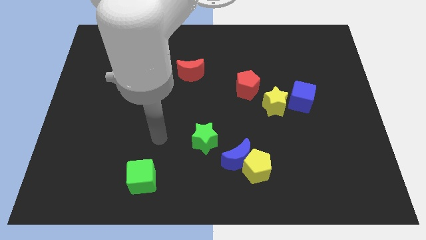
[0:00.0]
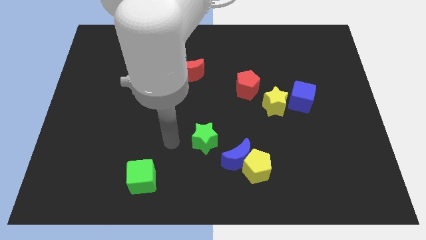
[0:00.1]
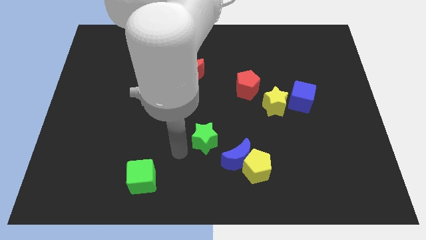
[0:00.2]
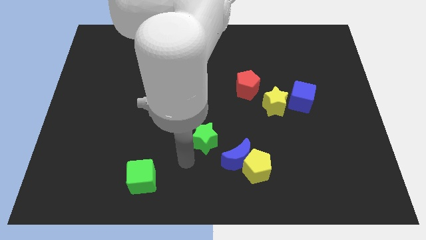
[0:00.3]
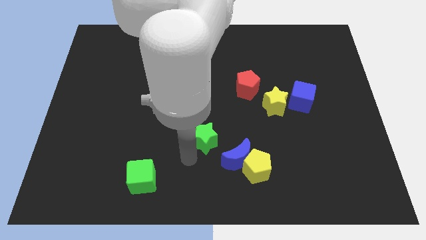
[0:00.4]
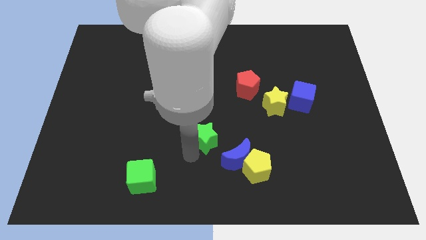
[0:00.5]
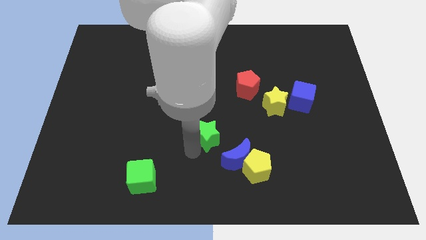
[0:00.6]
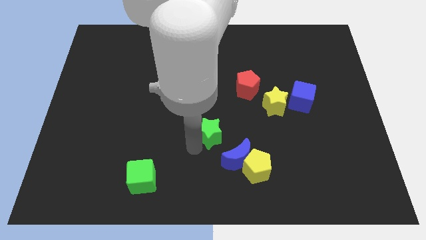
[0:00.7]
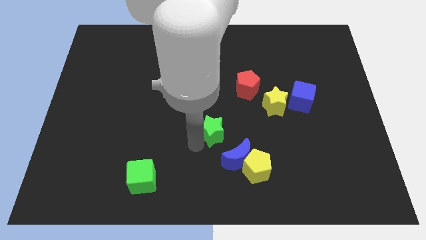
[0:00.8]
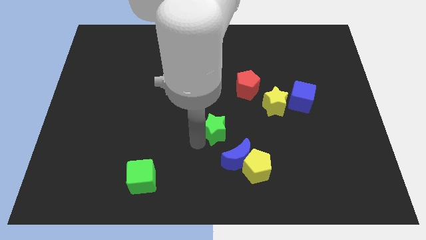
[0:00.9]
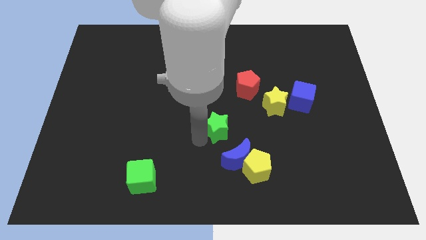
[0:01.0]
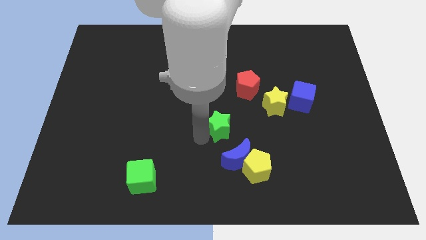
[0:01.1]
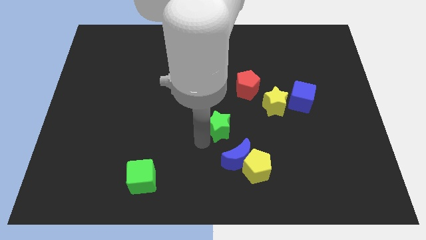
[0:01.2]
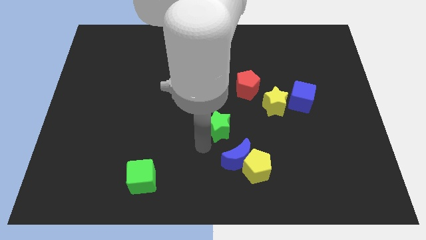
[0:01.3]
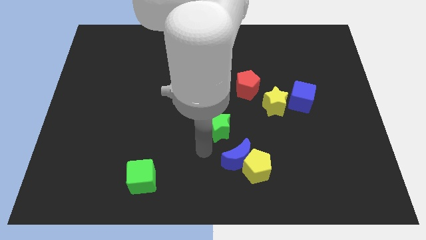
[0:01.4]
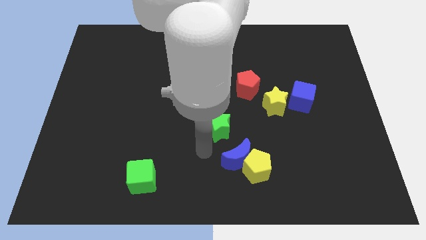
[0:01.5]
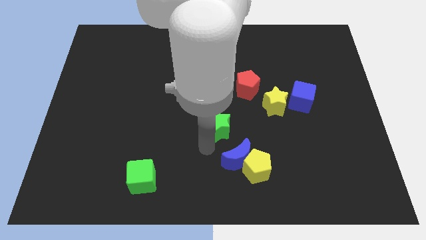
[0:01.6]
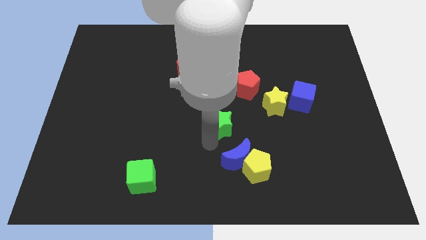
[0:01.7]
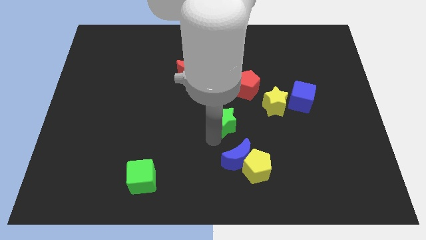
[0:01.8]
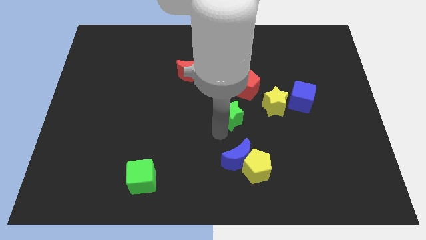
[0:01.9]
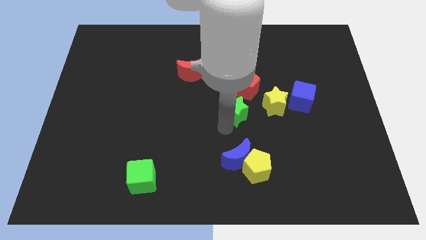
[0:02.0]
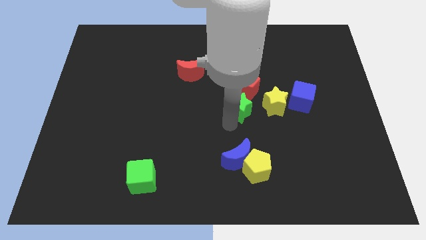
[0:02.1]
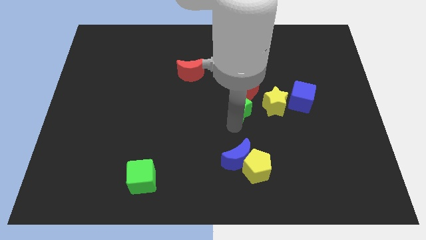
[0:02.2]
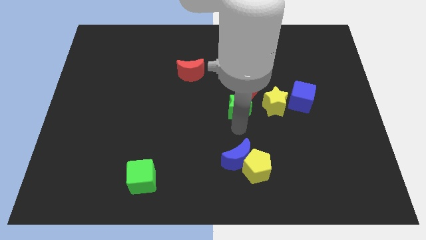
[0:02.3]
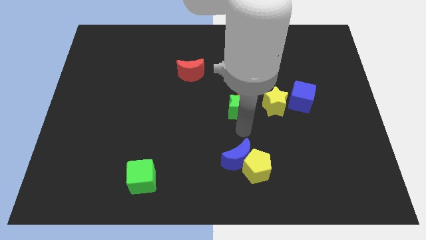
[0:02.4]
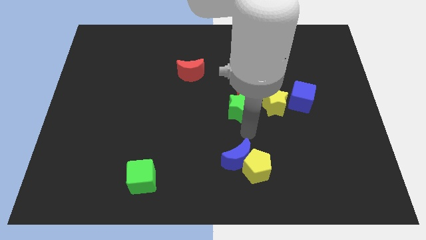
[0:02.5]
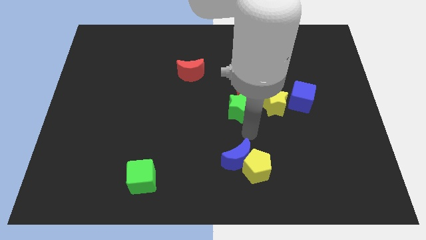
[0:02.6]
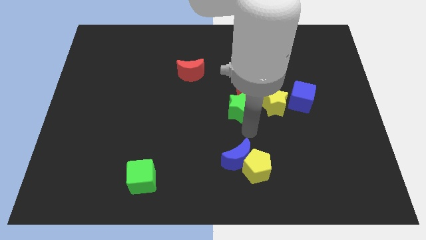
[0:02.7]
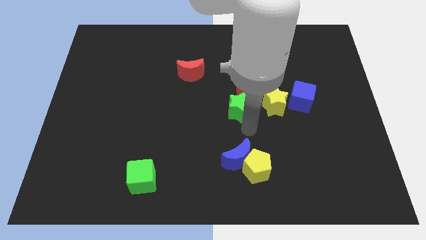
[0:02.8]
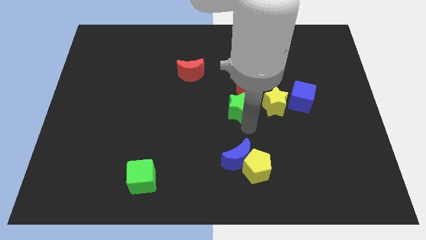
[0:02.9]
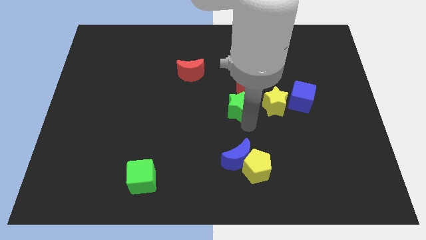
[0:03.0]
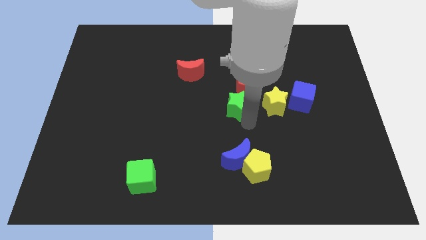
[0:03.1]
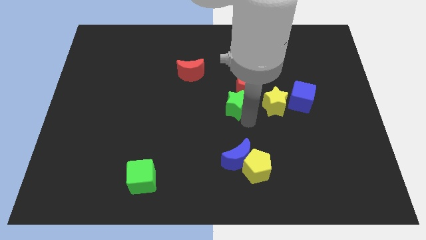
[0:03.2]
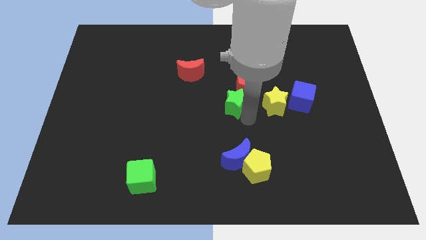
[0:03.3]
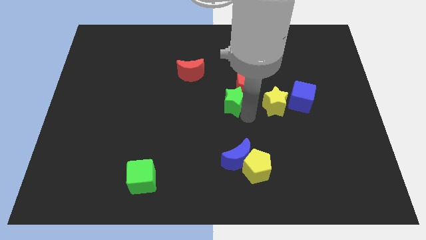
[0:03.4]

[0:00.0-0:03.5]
move the green star next to the red pentagon

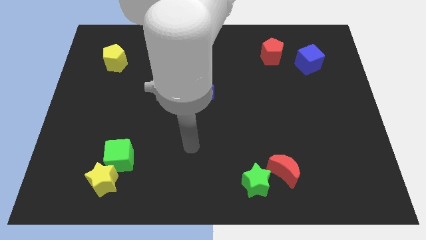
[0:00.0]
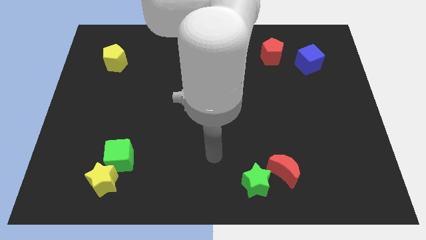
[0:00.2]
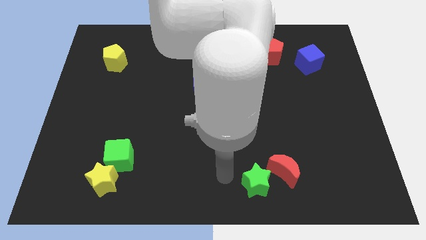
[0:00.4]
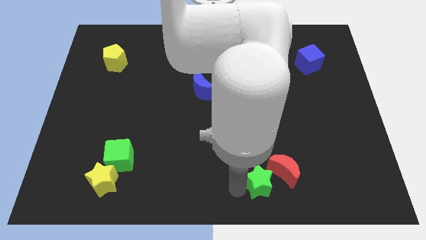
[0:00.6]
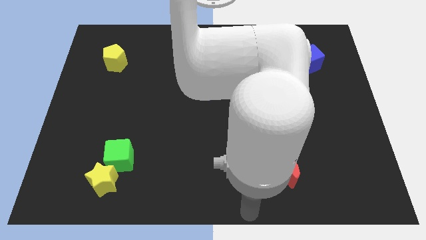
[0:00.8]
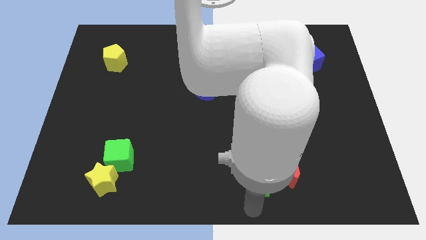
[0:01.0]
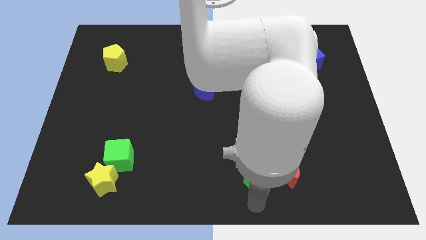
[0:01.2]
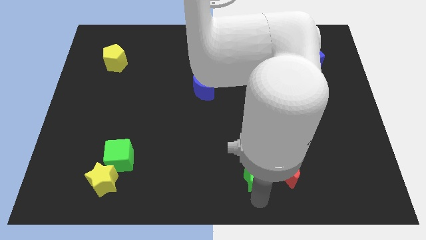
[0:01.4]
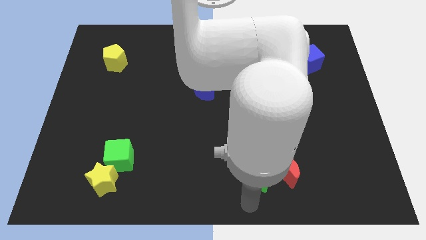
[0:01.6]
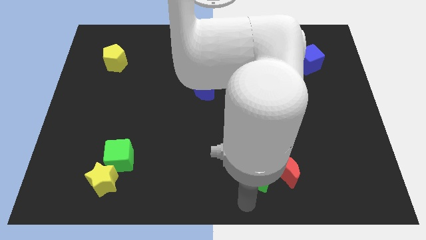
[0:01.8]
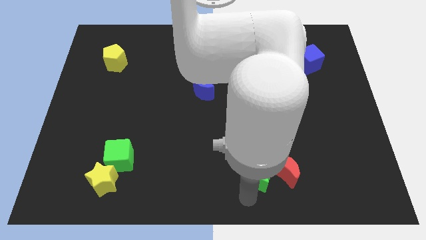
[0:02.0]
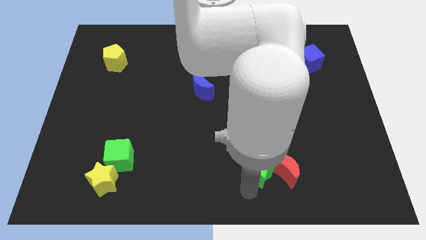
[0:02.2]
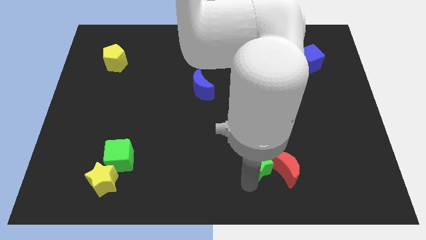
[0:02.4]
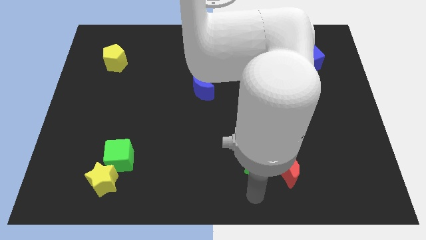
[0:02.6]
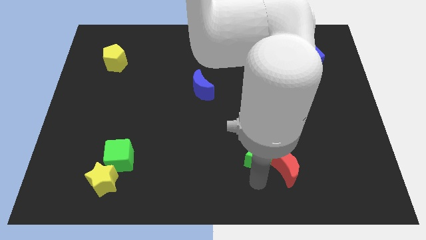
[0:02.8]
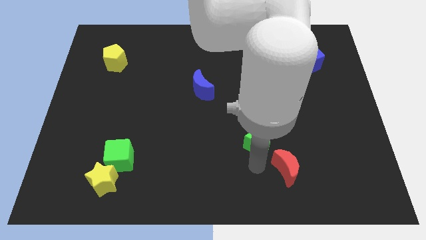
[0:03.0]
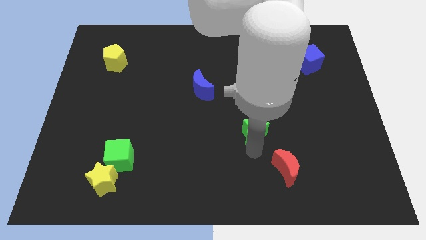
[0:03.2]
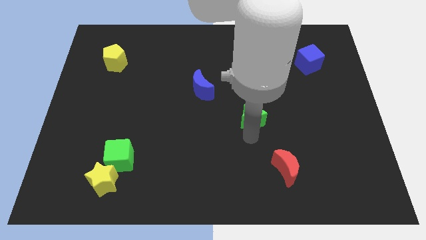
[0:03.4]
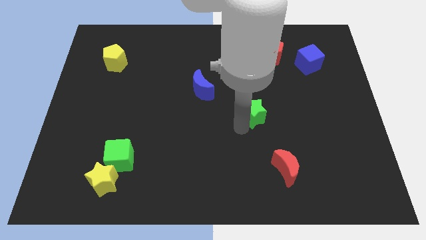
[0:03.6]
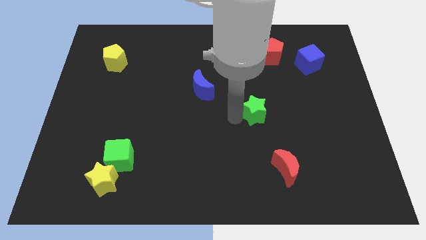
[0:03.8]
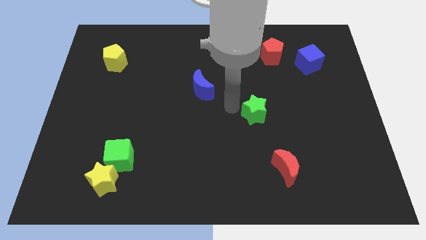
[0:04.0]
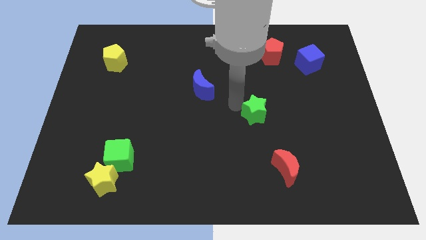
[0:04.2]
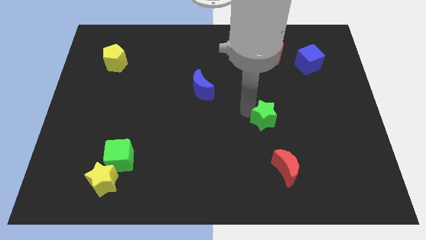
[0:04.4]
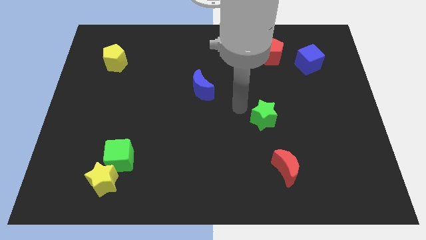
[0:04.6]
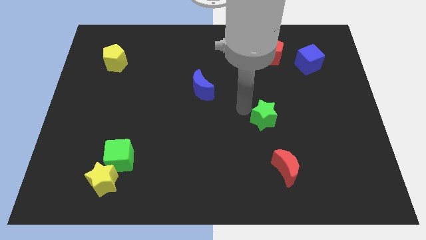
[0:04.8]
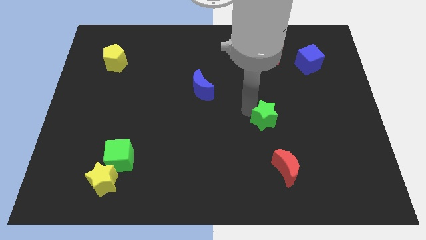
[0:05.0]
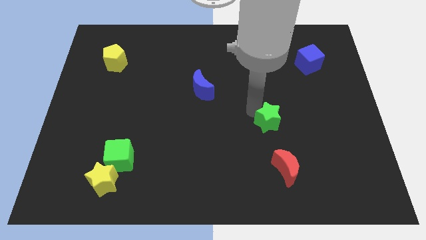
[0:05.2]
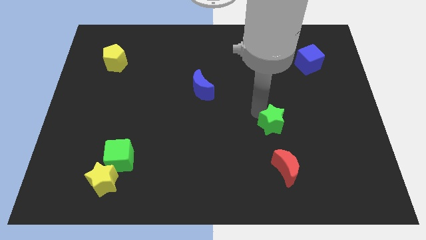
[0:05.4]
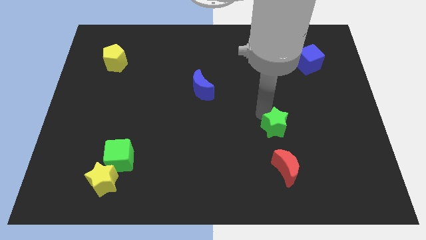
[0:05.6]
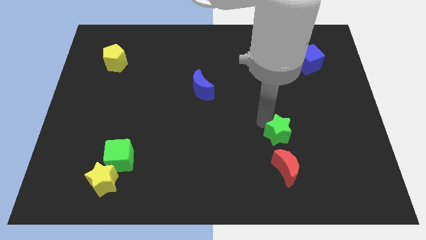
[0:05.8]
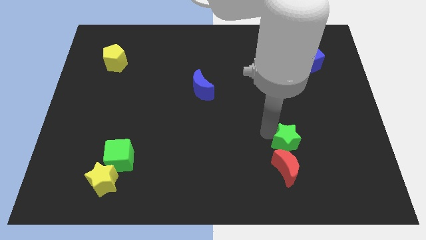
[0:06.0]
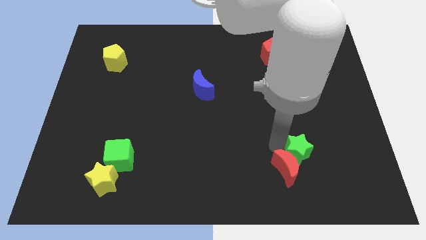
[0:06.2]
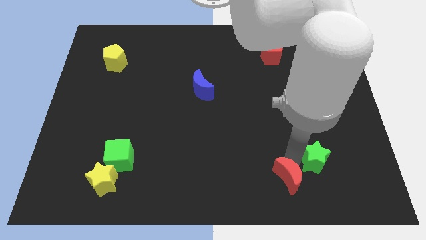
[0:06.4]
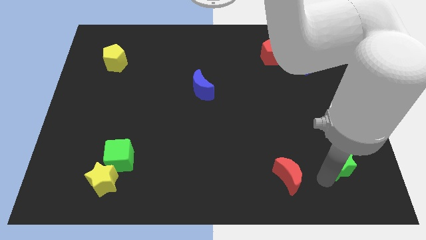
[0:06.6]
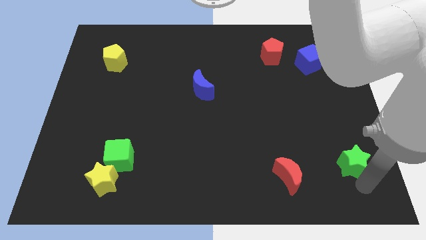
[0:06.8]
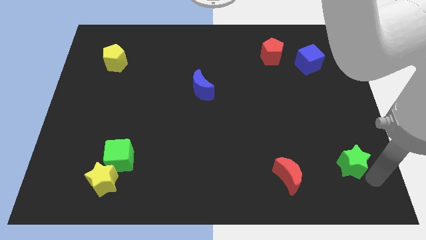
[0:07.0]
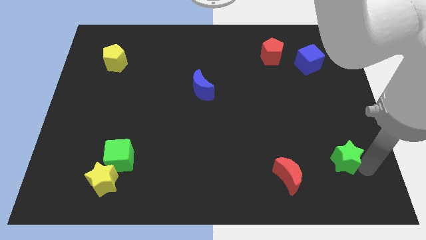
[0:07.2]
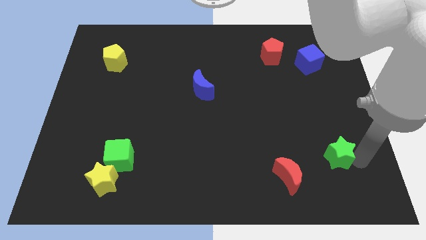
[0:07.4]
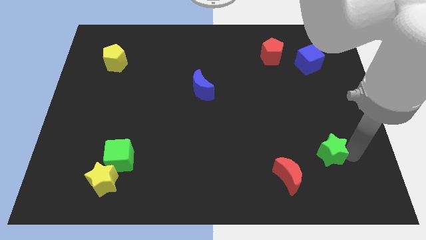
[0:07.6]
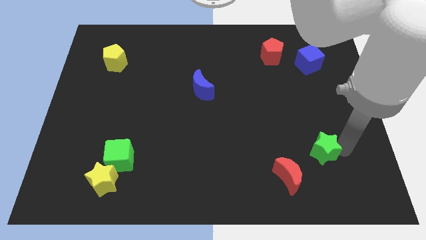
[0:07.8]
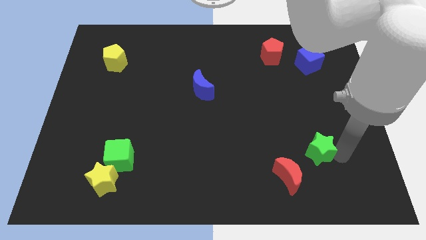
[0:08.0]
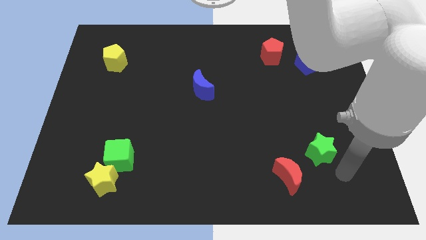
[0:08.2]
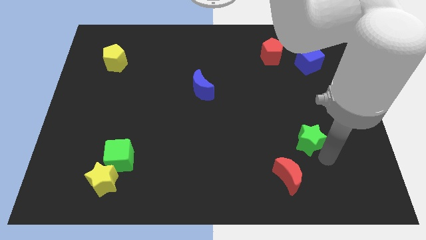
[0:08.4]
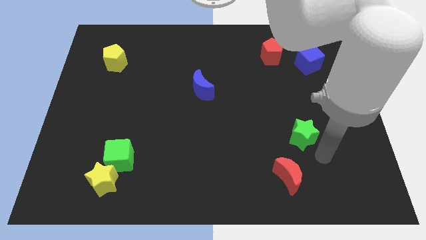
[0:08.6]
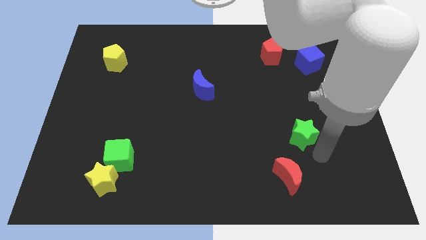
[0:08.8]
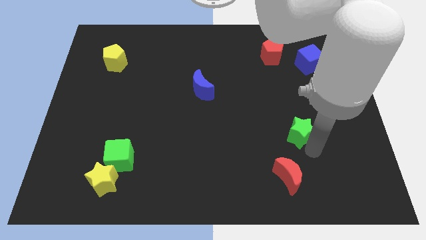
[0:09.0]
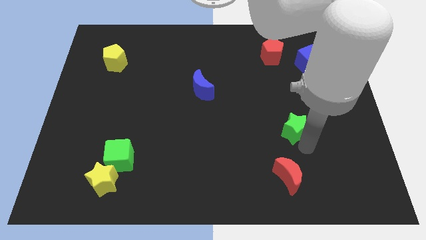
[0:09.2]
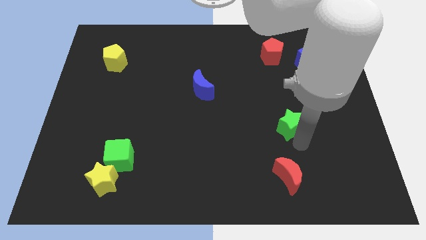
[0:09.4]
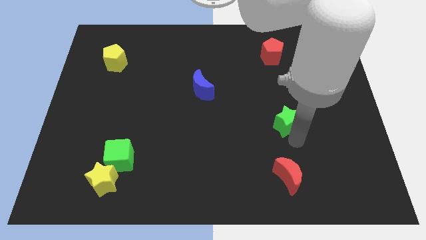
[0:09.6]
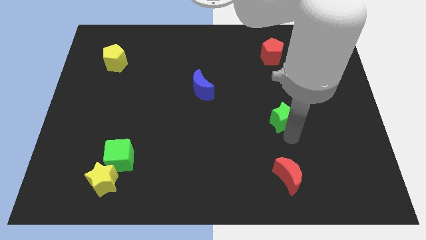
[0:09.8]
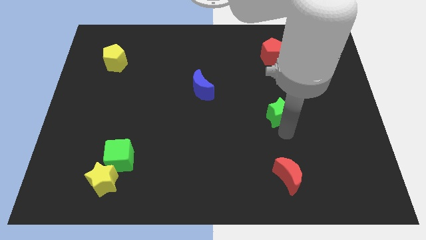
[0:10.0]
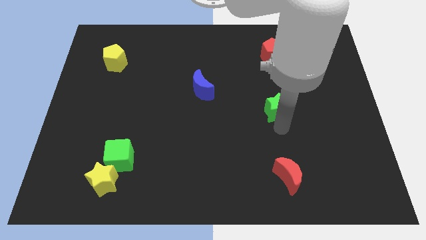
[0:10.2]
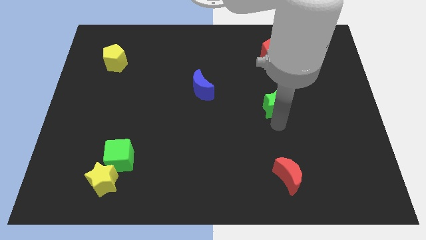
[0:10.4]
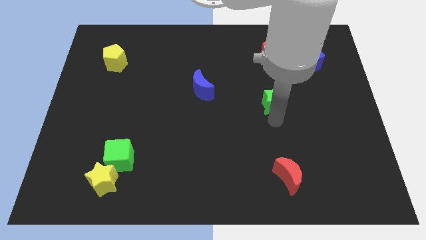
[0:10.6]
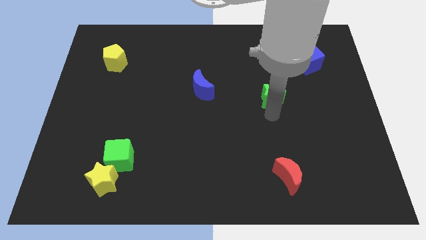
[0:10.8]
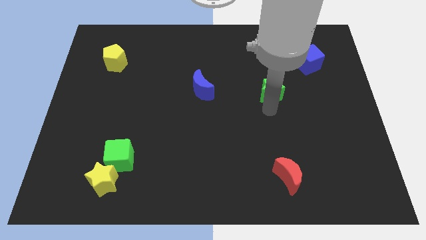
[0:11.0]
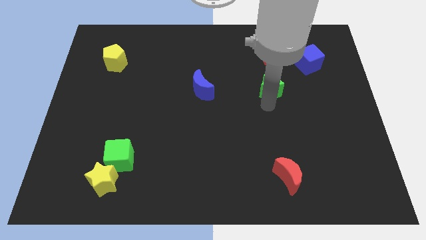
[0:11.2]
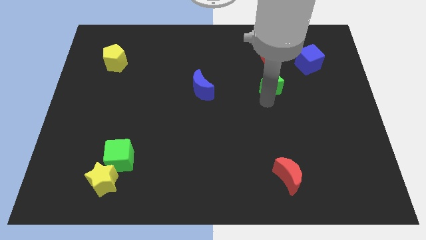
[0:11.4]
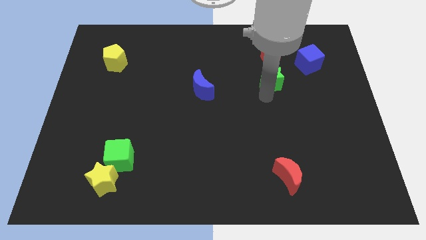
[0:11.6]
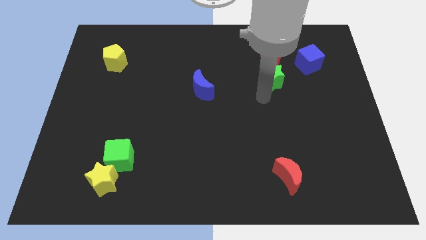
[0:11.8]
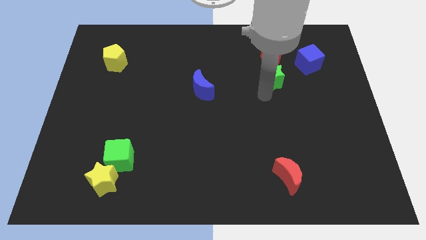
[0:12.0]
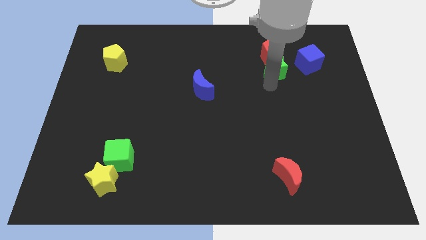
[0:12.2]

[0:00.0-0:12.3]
push the green star next to the red pentagon
